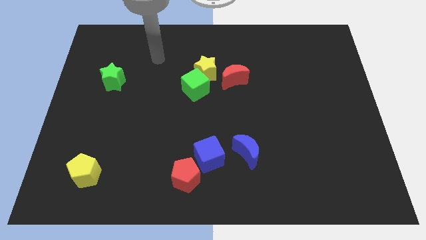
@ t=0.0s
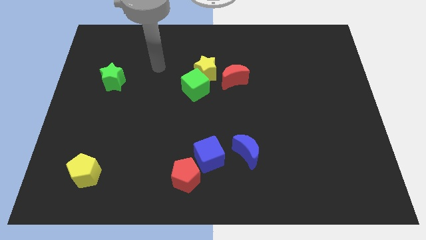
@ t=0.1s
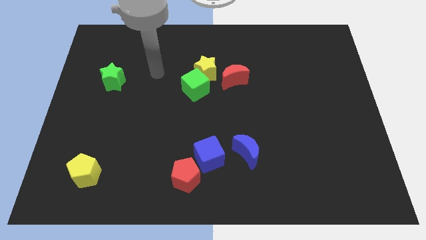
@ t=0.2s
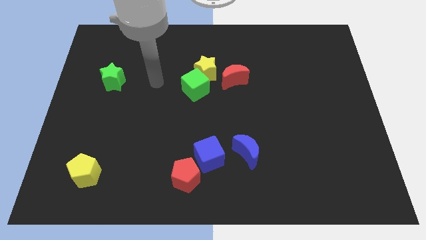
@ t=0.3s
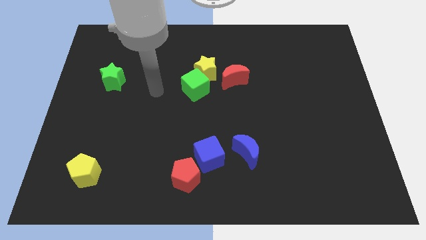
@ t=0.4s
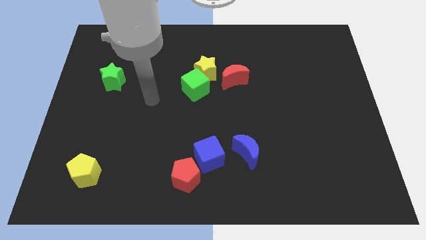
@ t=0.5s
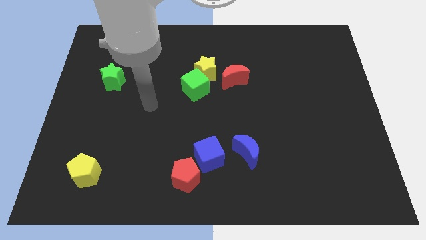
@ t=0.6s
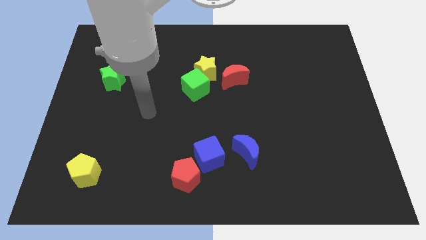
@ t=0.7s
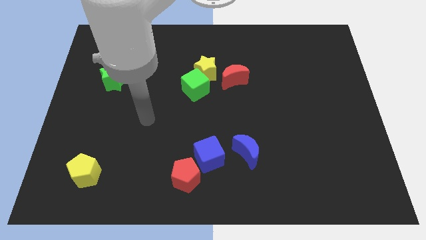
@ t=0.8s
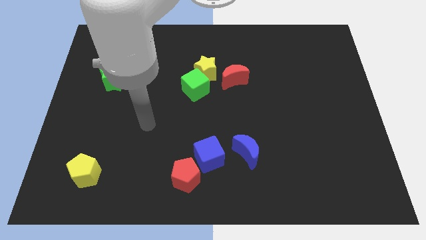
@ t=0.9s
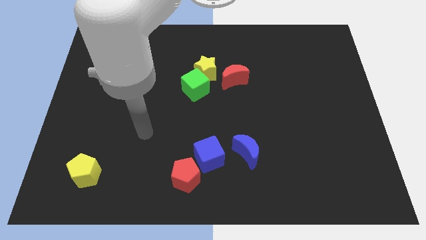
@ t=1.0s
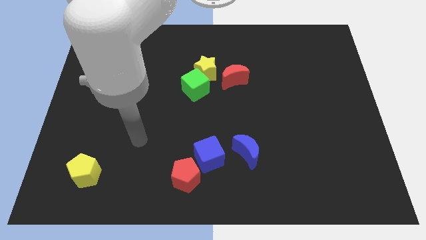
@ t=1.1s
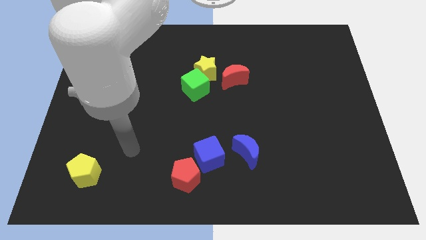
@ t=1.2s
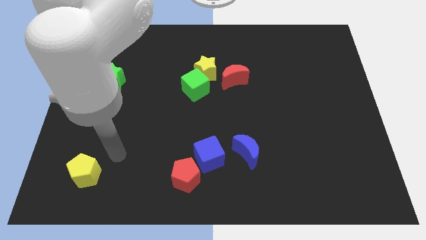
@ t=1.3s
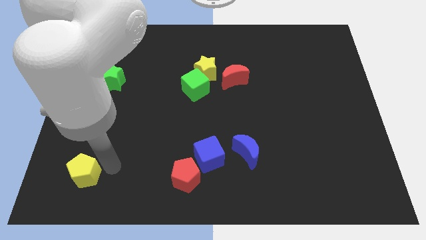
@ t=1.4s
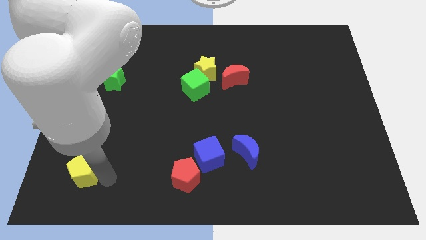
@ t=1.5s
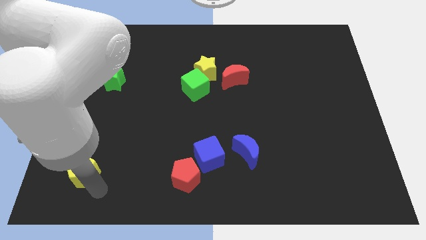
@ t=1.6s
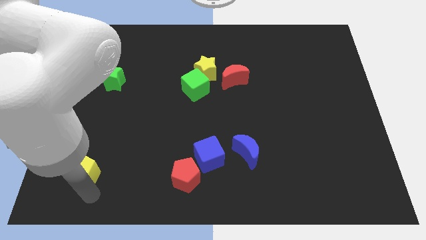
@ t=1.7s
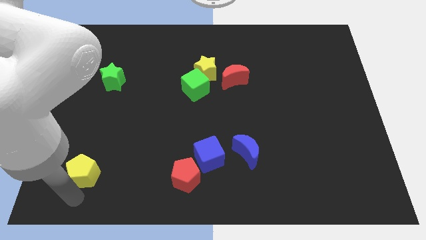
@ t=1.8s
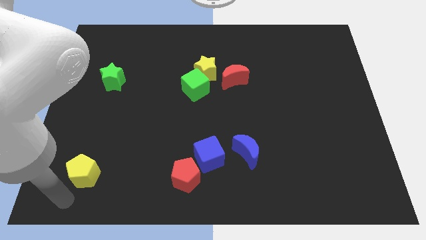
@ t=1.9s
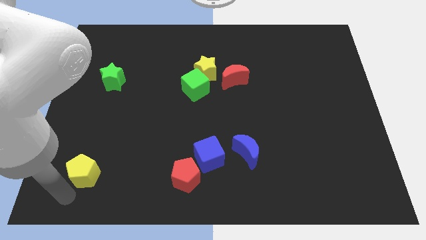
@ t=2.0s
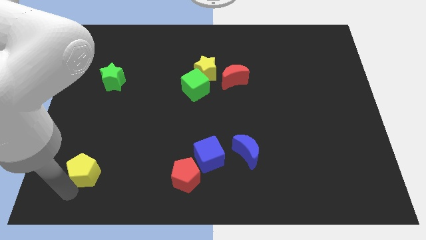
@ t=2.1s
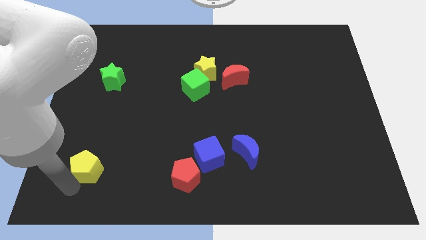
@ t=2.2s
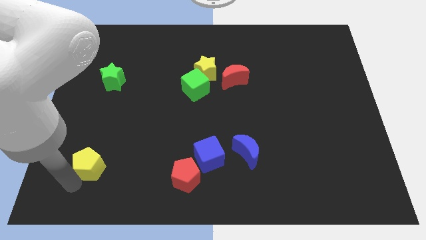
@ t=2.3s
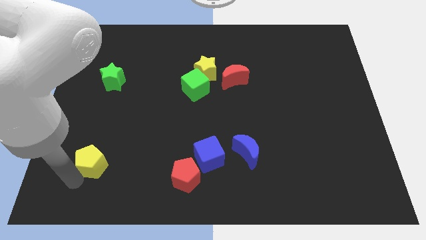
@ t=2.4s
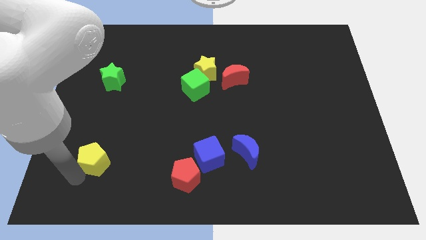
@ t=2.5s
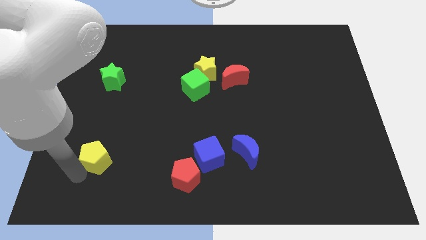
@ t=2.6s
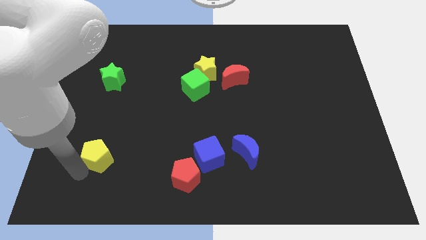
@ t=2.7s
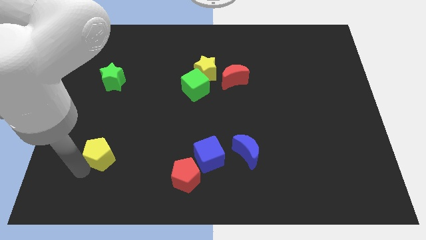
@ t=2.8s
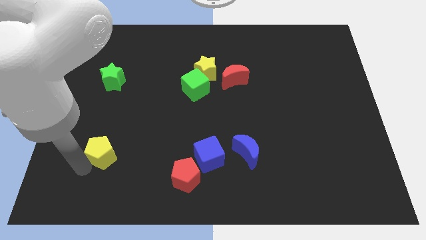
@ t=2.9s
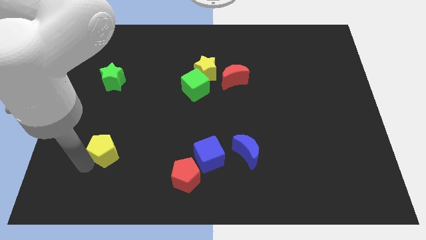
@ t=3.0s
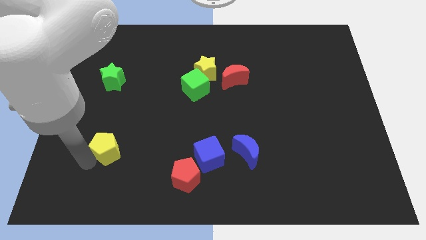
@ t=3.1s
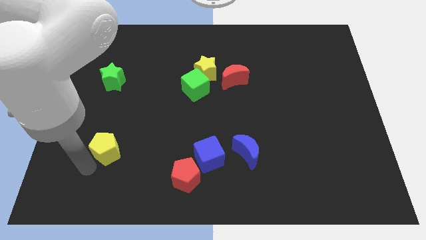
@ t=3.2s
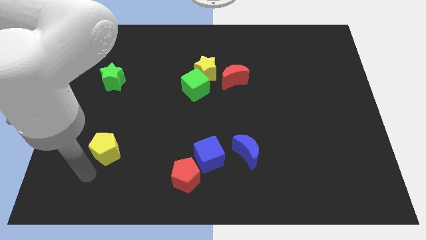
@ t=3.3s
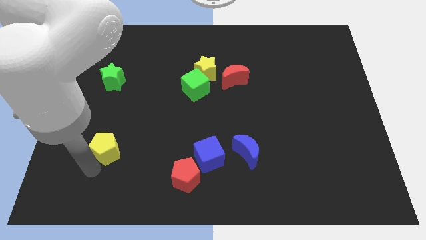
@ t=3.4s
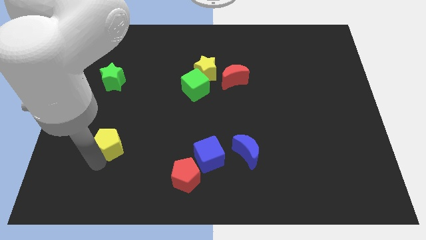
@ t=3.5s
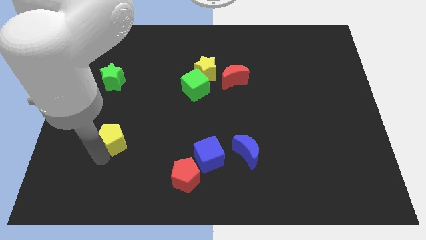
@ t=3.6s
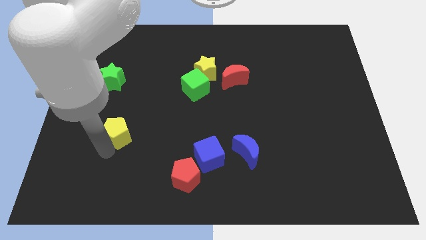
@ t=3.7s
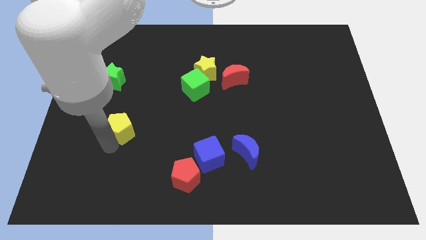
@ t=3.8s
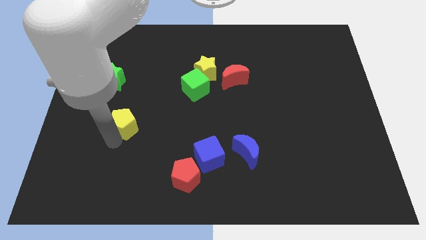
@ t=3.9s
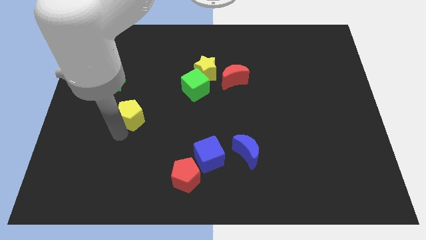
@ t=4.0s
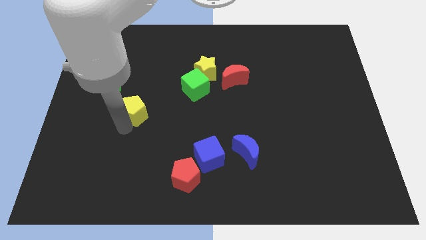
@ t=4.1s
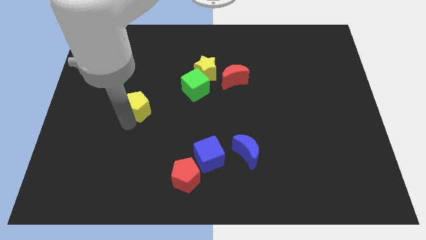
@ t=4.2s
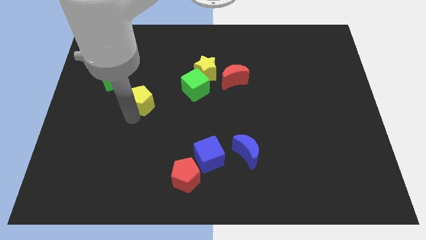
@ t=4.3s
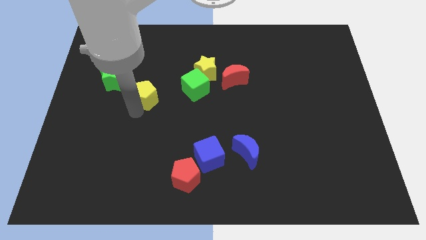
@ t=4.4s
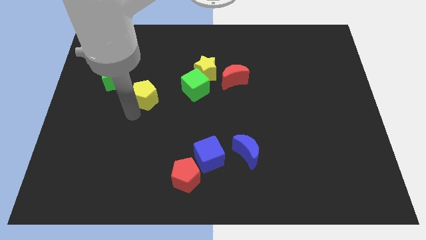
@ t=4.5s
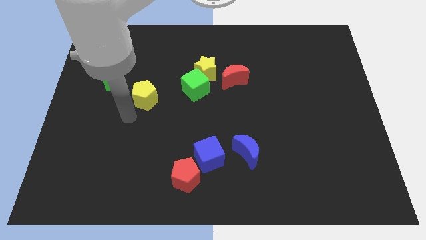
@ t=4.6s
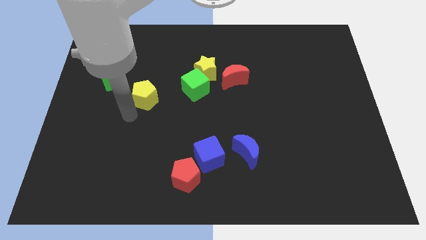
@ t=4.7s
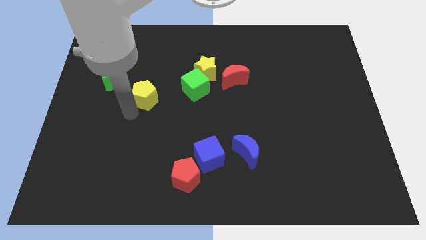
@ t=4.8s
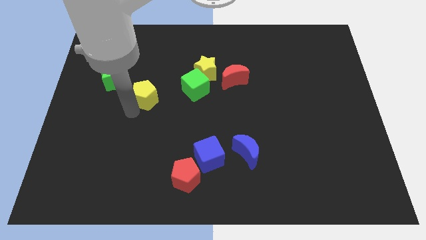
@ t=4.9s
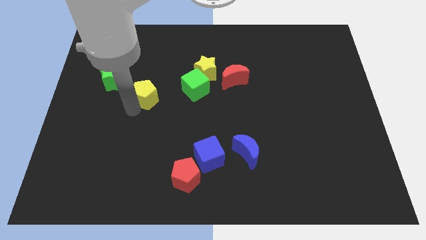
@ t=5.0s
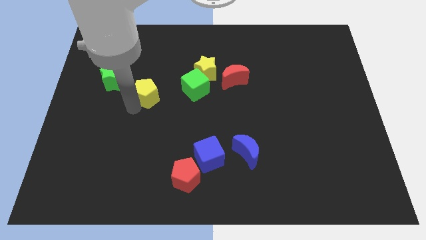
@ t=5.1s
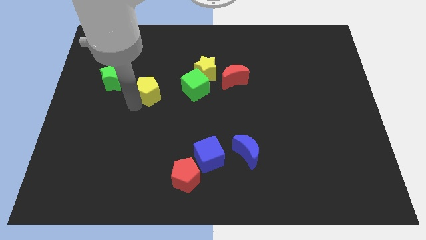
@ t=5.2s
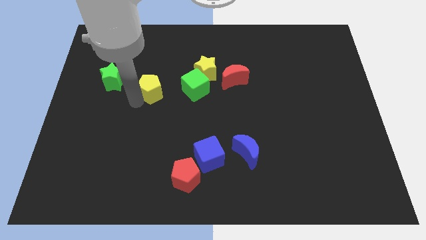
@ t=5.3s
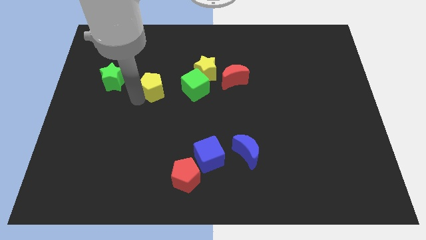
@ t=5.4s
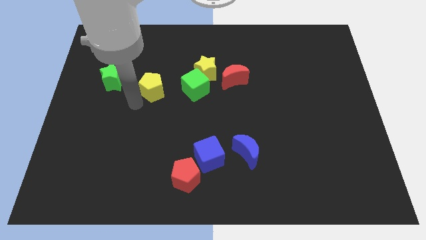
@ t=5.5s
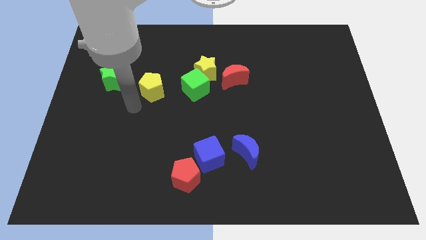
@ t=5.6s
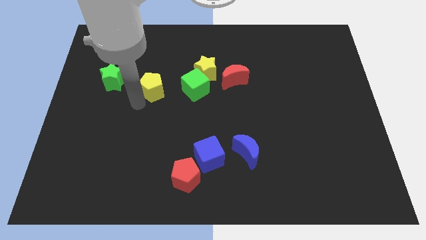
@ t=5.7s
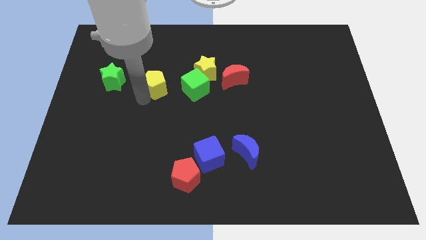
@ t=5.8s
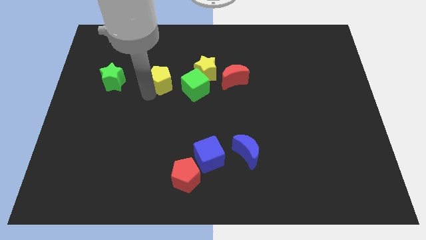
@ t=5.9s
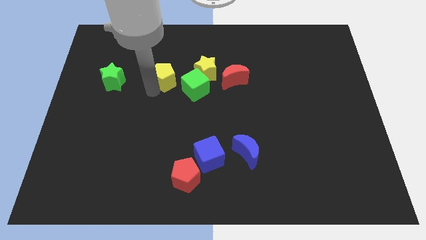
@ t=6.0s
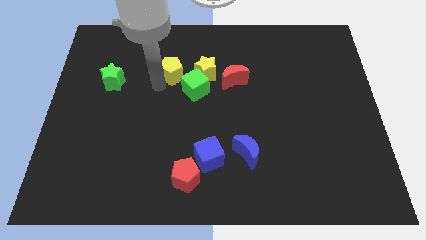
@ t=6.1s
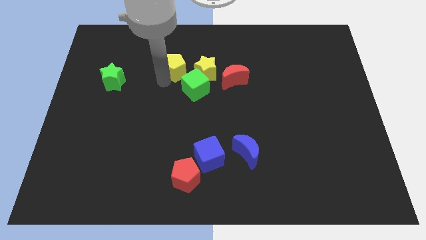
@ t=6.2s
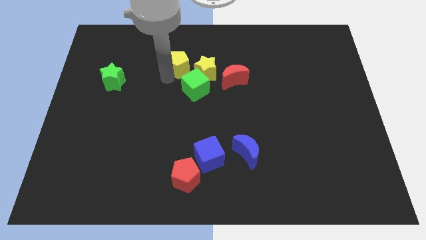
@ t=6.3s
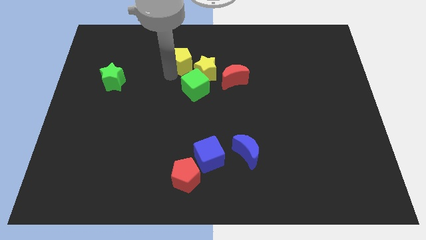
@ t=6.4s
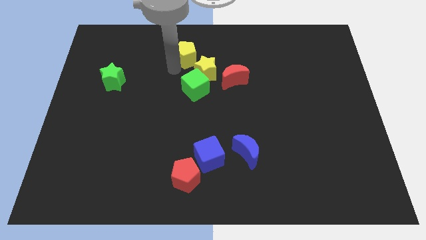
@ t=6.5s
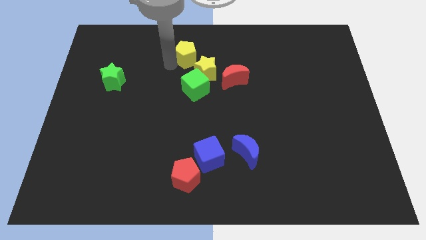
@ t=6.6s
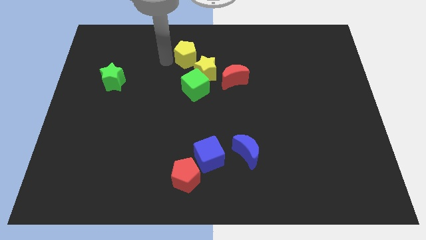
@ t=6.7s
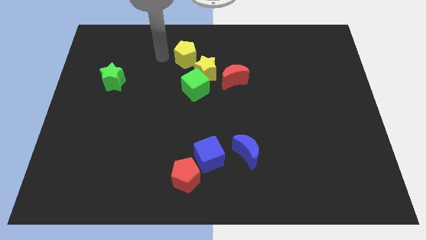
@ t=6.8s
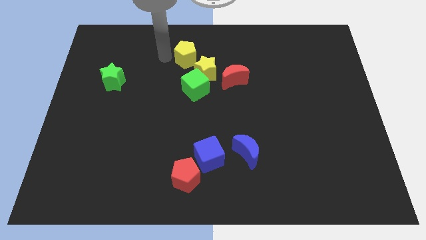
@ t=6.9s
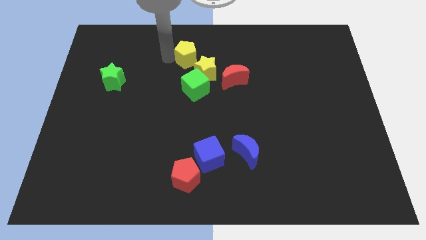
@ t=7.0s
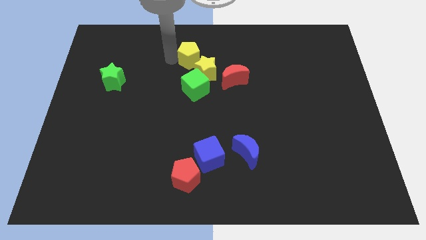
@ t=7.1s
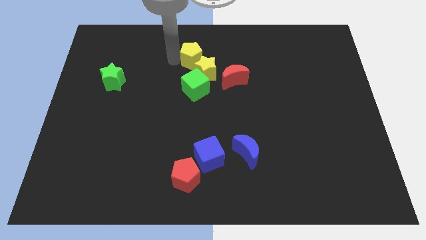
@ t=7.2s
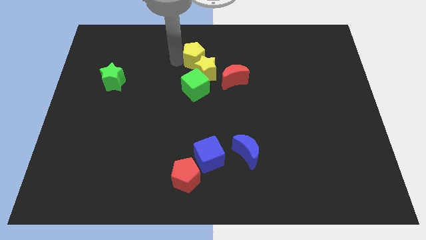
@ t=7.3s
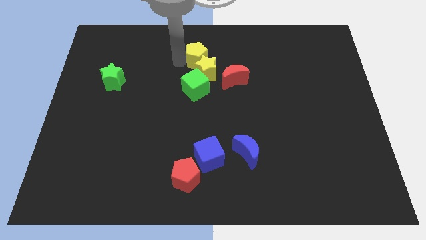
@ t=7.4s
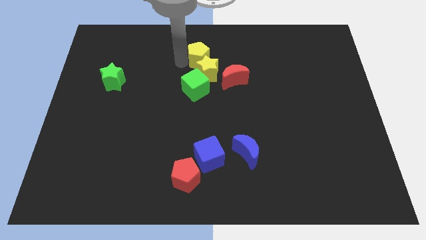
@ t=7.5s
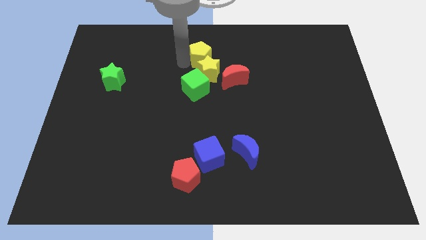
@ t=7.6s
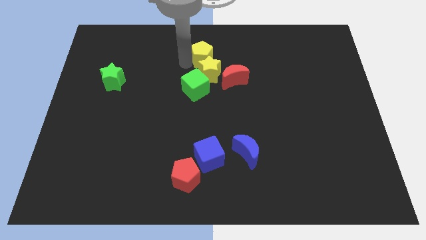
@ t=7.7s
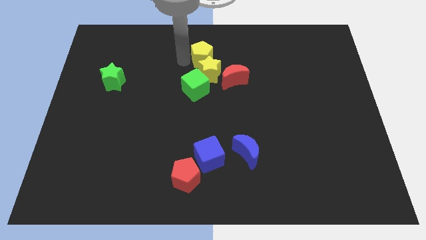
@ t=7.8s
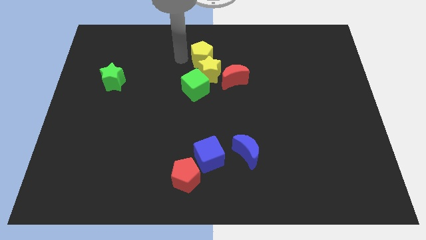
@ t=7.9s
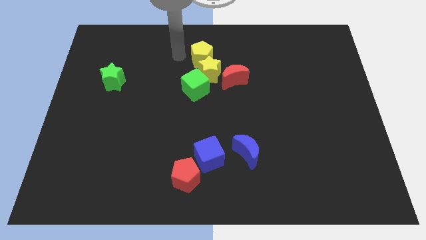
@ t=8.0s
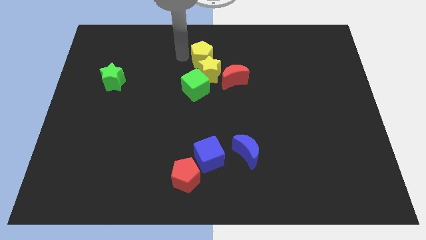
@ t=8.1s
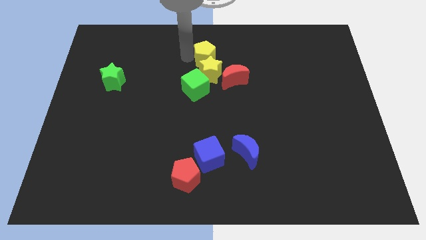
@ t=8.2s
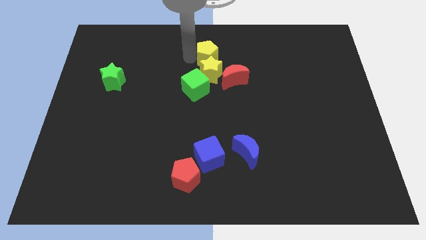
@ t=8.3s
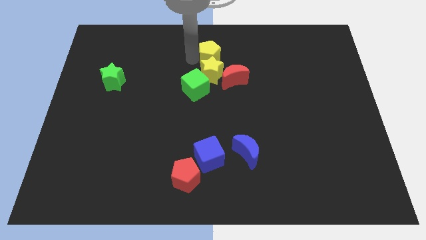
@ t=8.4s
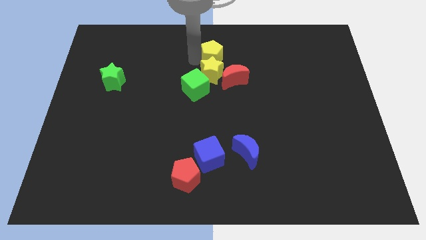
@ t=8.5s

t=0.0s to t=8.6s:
put the yellow pentagon diagonally up and to the right of the green cube

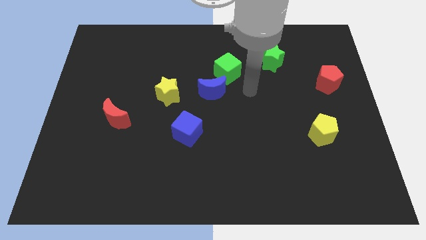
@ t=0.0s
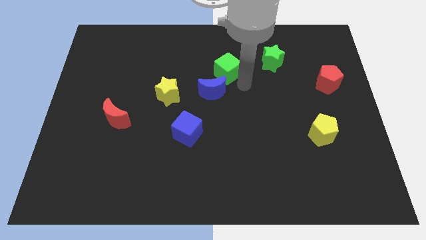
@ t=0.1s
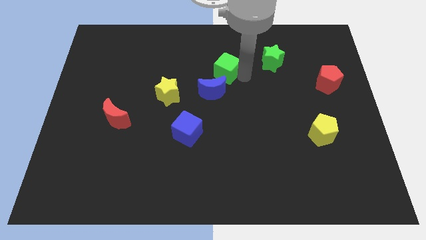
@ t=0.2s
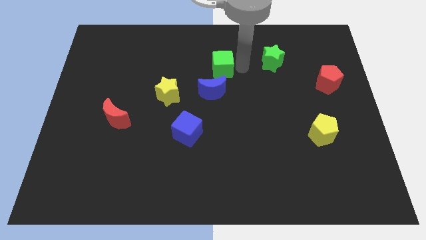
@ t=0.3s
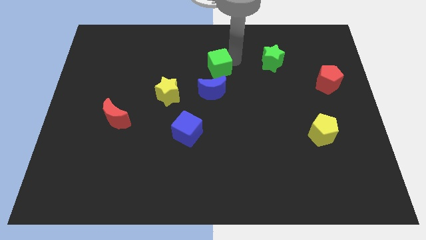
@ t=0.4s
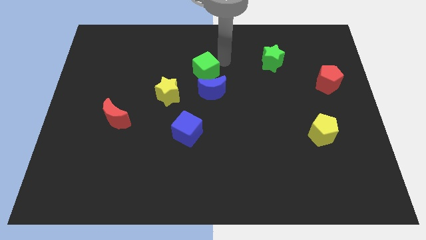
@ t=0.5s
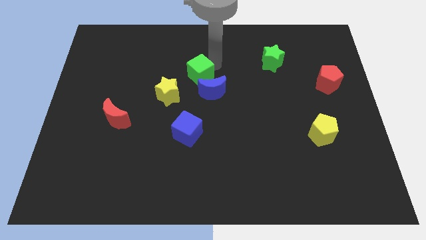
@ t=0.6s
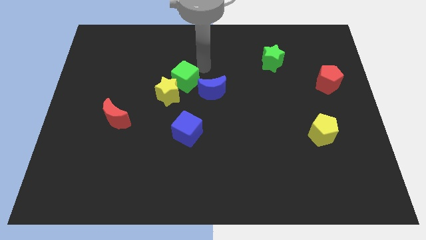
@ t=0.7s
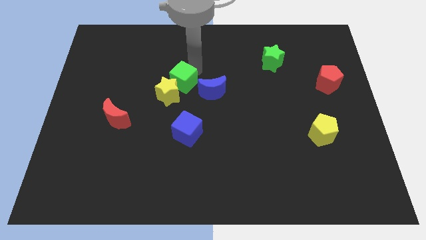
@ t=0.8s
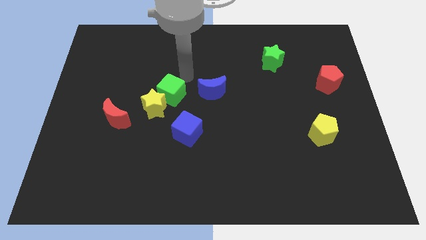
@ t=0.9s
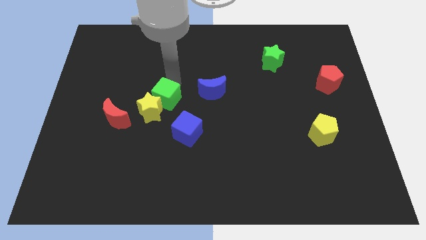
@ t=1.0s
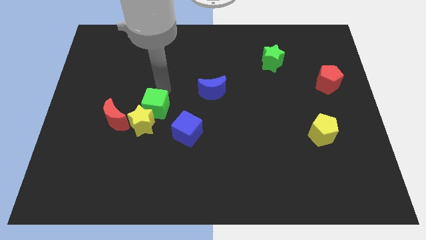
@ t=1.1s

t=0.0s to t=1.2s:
move the yellow star left of the blue cube
